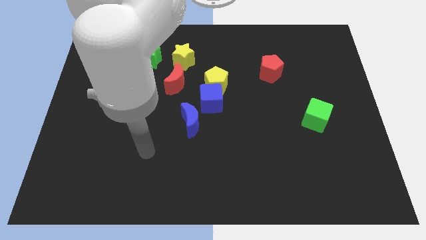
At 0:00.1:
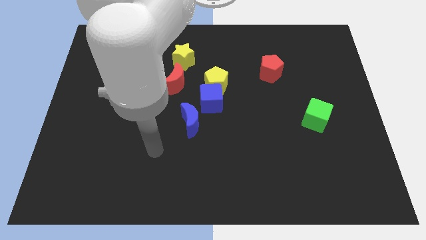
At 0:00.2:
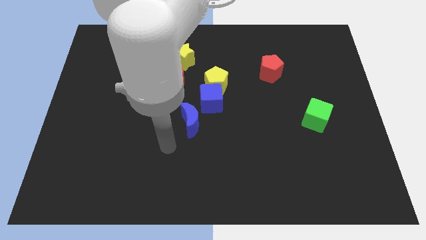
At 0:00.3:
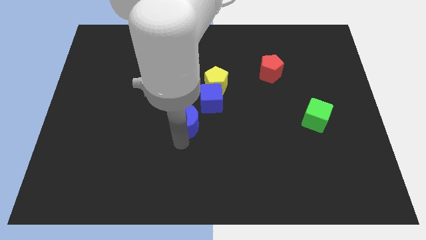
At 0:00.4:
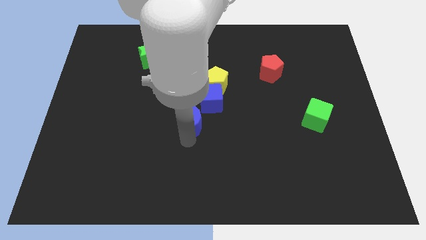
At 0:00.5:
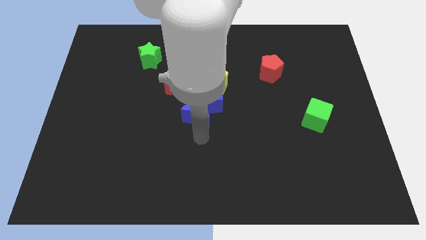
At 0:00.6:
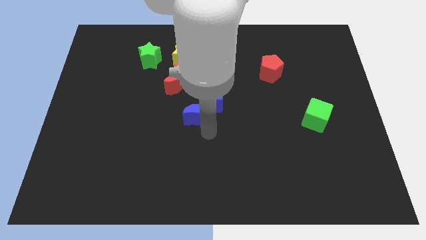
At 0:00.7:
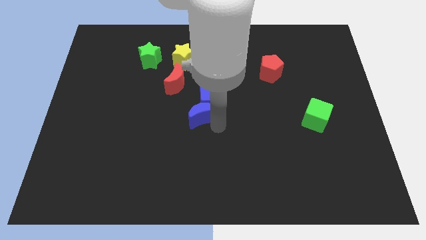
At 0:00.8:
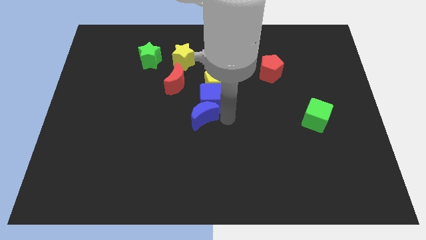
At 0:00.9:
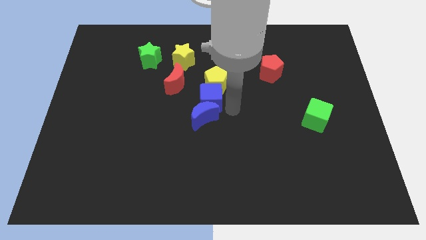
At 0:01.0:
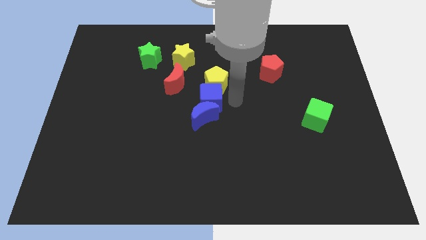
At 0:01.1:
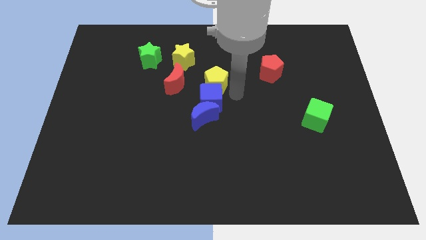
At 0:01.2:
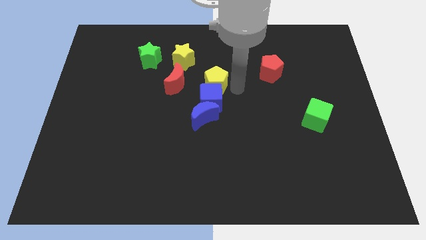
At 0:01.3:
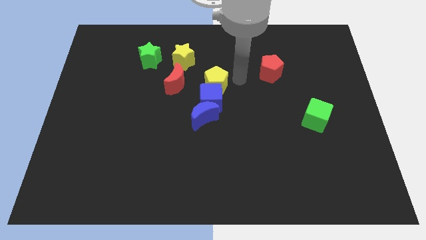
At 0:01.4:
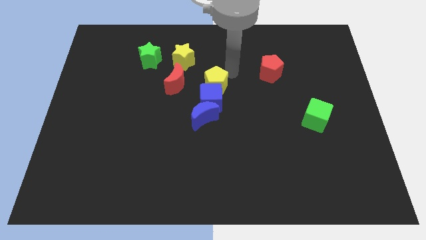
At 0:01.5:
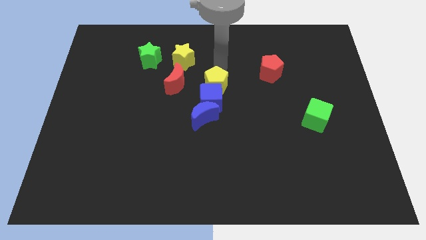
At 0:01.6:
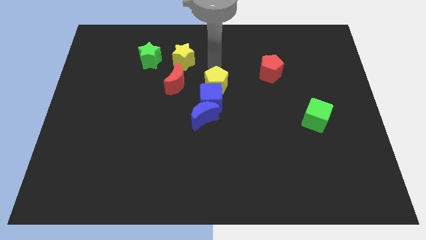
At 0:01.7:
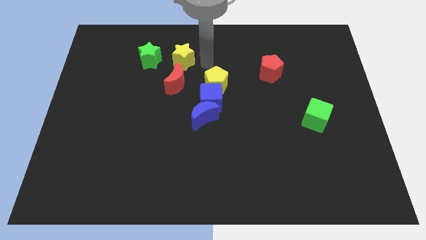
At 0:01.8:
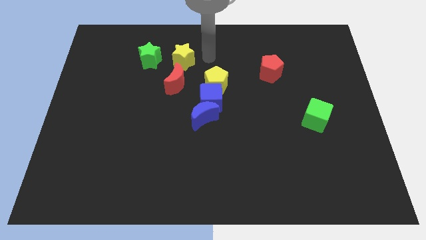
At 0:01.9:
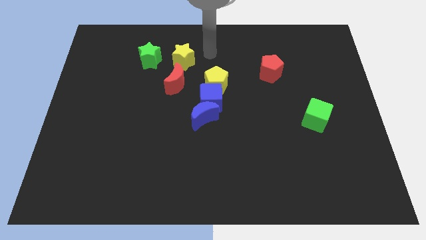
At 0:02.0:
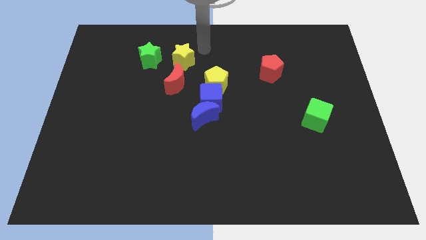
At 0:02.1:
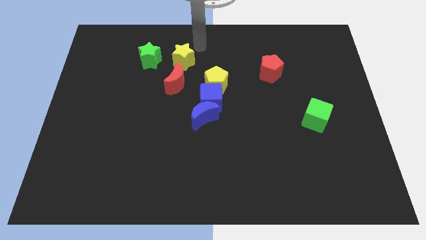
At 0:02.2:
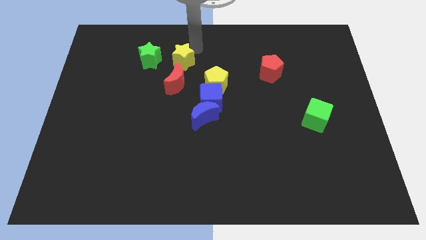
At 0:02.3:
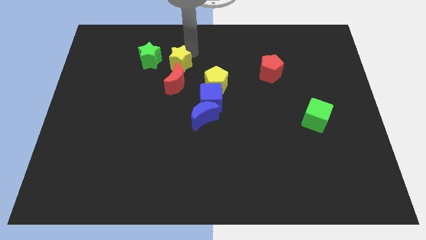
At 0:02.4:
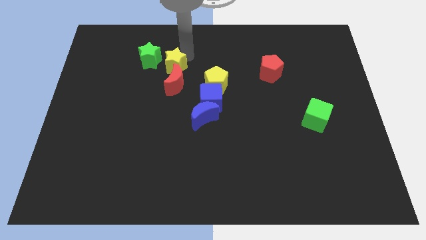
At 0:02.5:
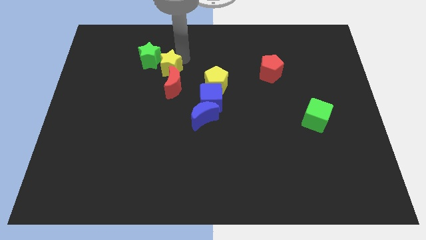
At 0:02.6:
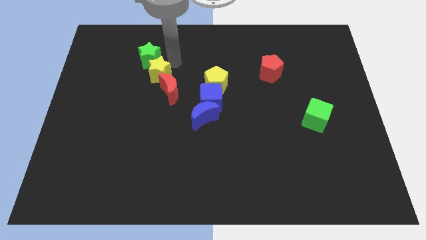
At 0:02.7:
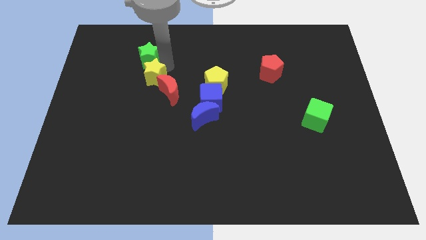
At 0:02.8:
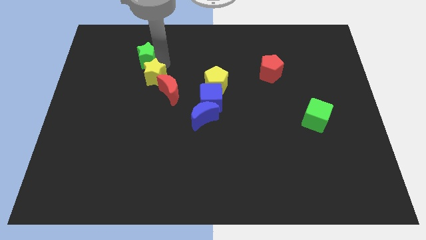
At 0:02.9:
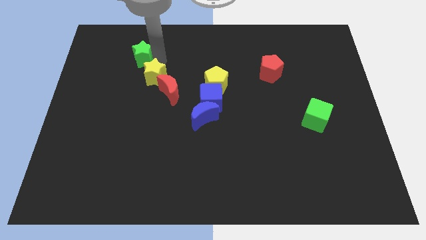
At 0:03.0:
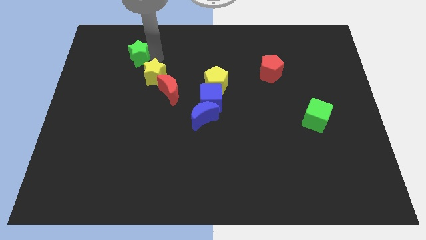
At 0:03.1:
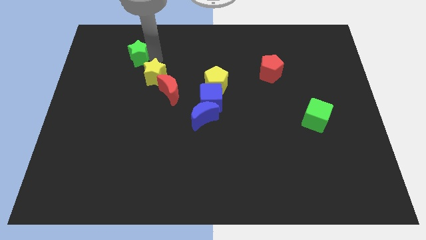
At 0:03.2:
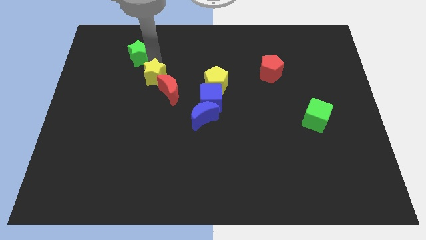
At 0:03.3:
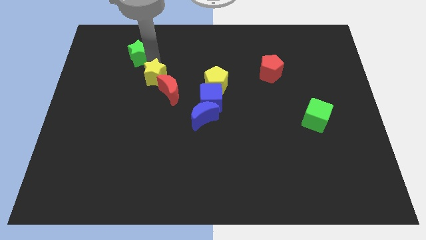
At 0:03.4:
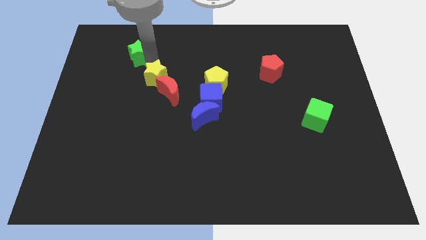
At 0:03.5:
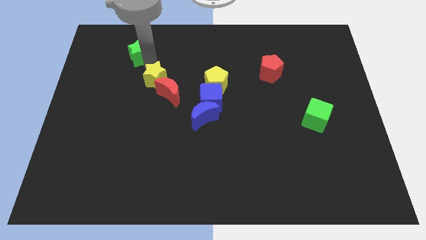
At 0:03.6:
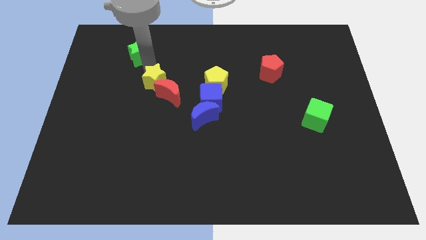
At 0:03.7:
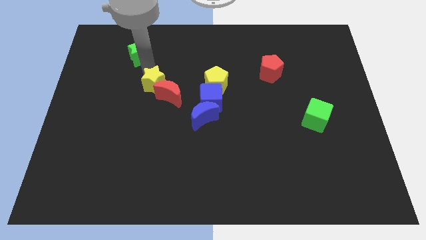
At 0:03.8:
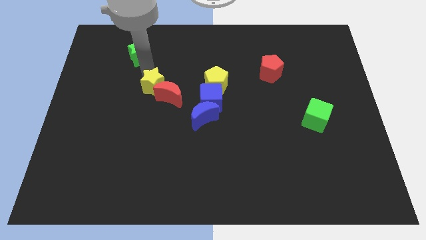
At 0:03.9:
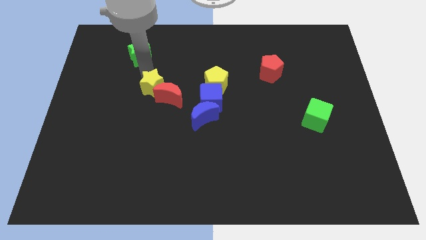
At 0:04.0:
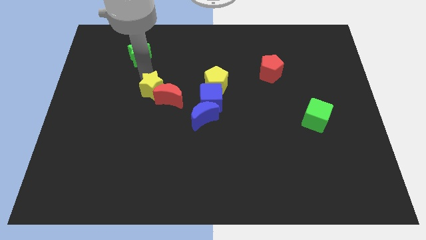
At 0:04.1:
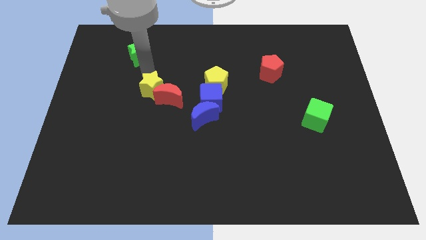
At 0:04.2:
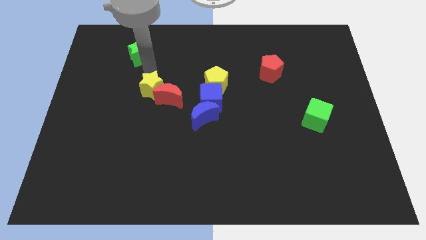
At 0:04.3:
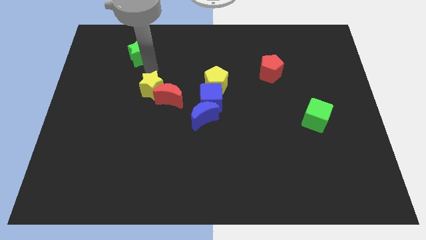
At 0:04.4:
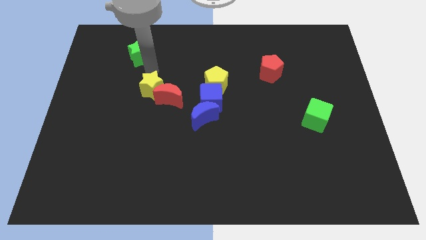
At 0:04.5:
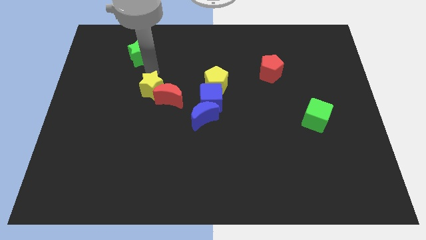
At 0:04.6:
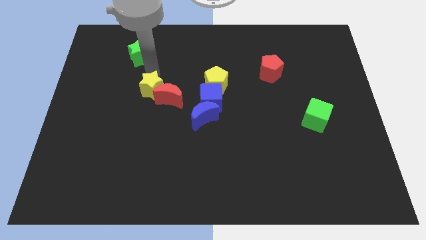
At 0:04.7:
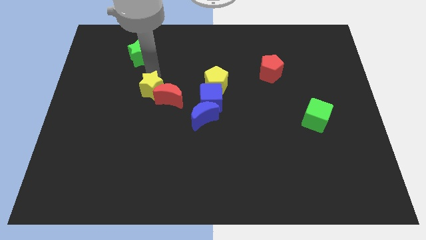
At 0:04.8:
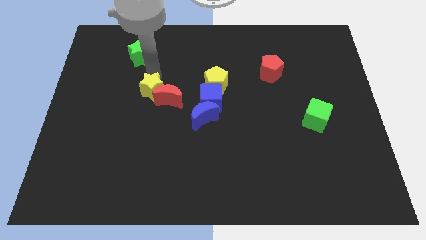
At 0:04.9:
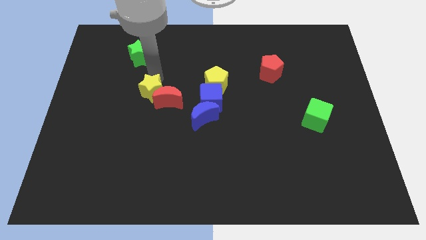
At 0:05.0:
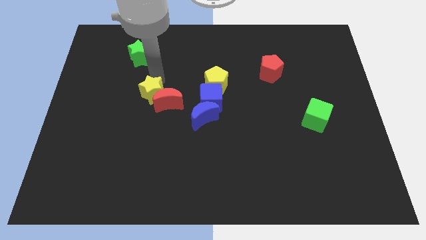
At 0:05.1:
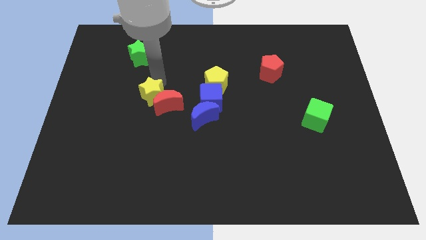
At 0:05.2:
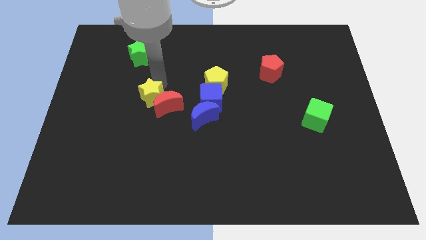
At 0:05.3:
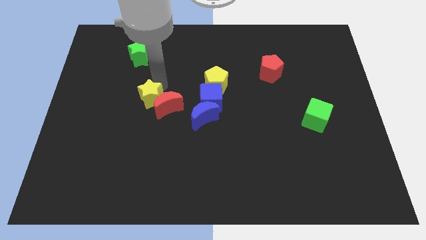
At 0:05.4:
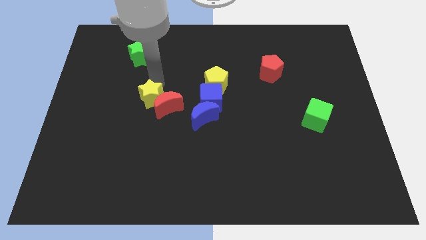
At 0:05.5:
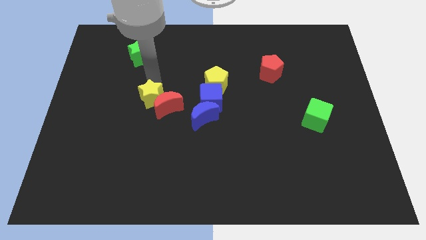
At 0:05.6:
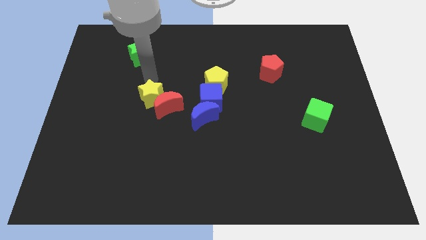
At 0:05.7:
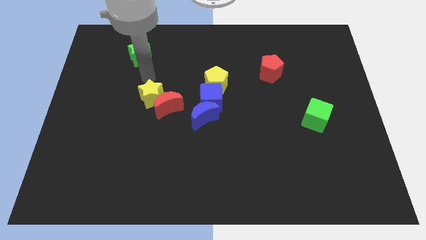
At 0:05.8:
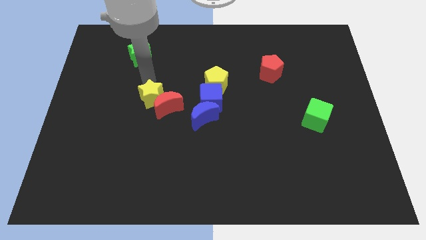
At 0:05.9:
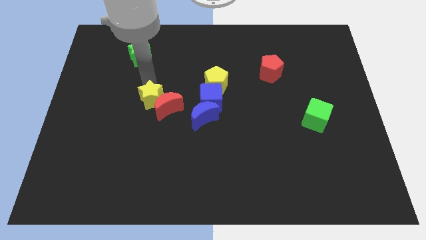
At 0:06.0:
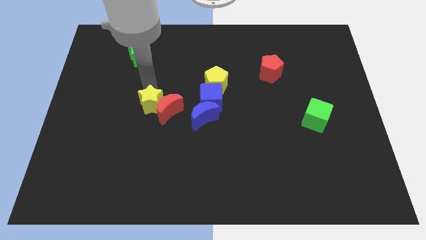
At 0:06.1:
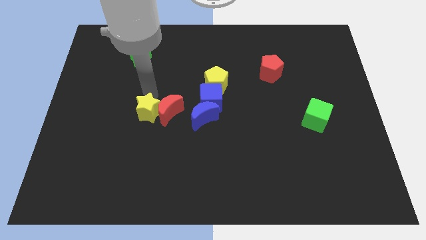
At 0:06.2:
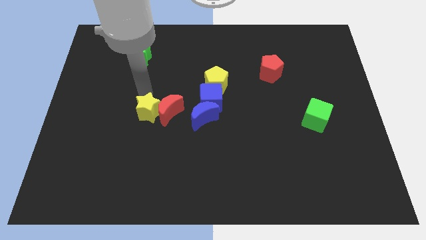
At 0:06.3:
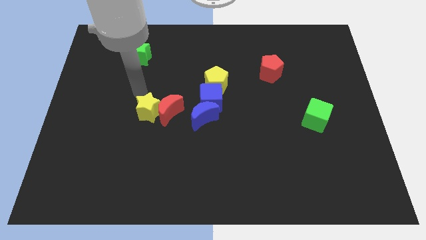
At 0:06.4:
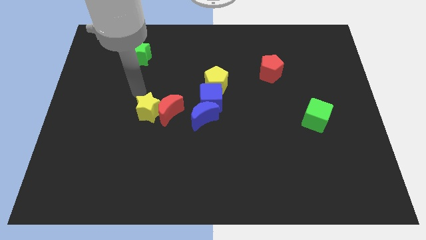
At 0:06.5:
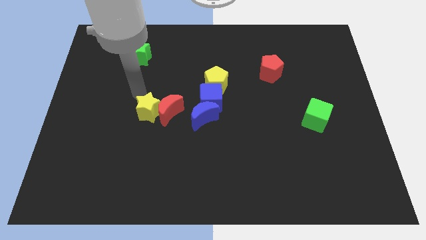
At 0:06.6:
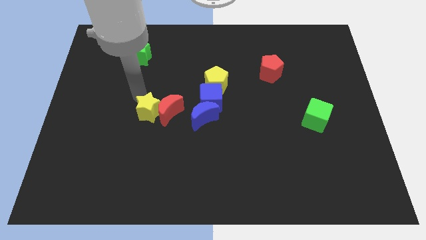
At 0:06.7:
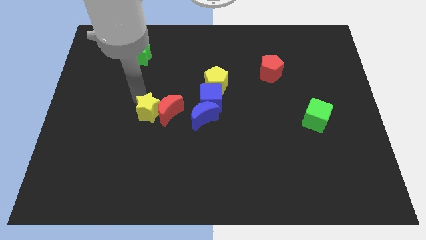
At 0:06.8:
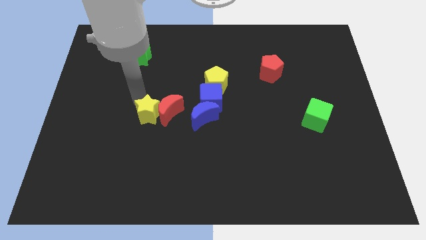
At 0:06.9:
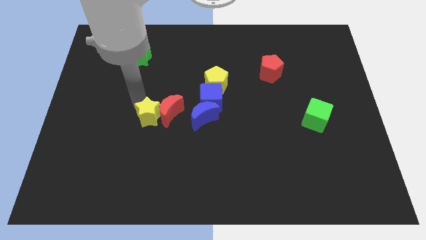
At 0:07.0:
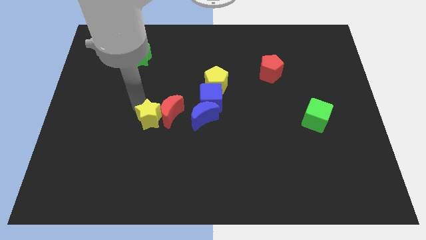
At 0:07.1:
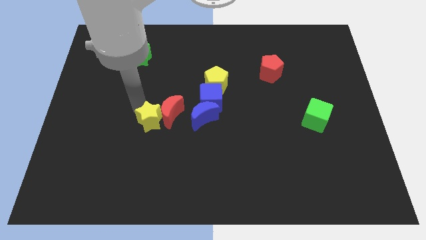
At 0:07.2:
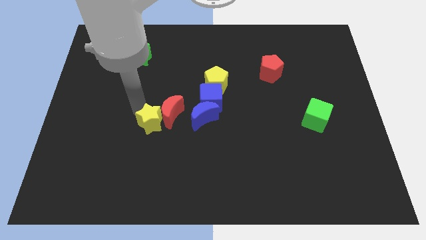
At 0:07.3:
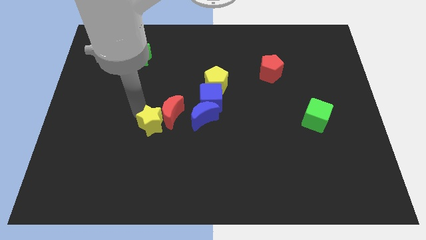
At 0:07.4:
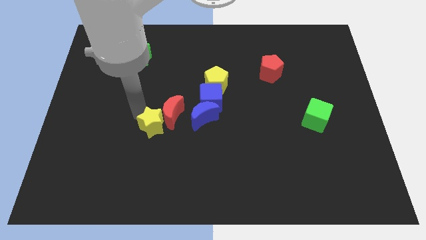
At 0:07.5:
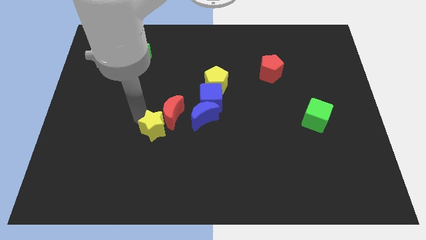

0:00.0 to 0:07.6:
slide the yellow star downwards

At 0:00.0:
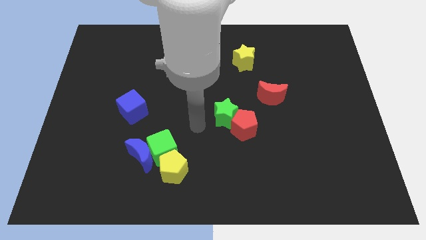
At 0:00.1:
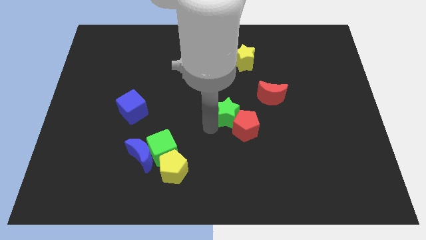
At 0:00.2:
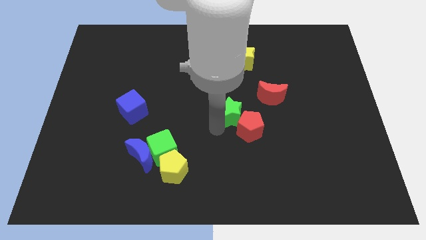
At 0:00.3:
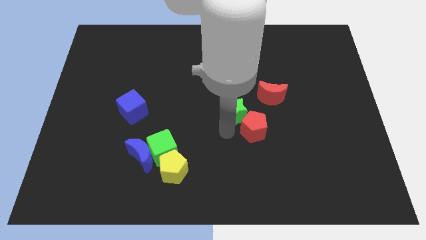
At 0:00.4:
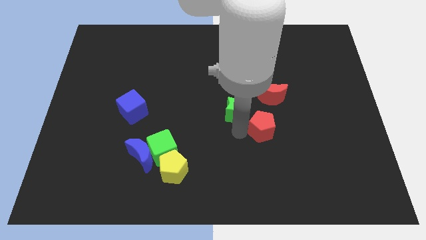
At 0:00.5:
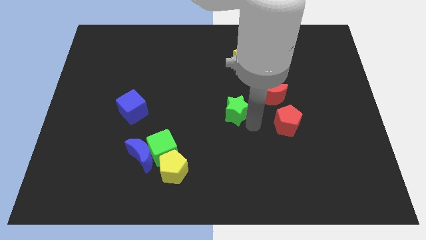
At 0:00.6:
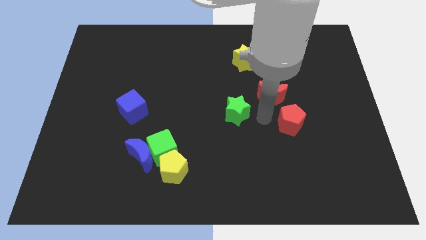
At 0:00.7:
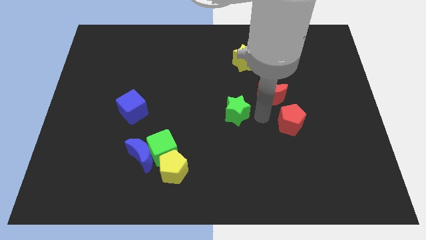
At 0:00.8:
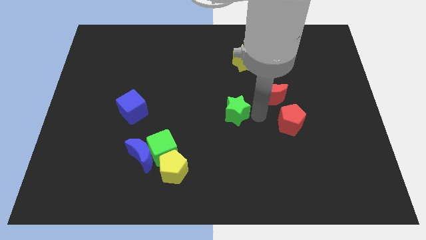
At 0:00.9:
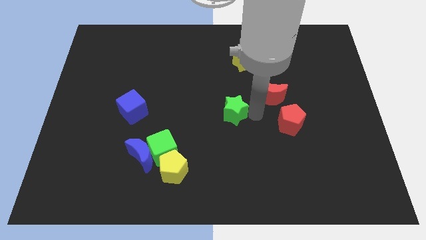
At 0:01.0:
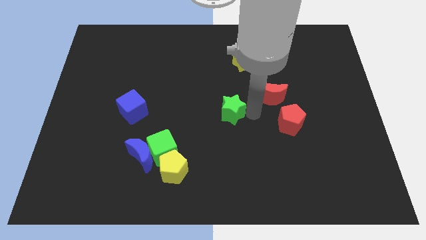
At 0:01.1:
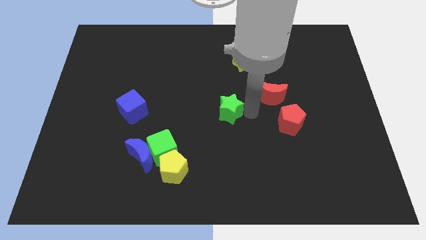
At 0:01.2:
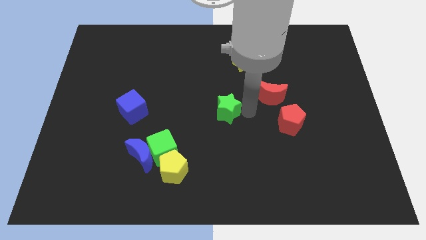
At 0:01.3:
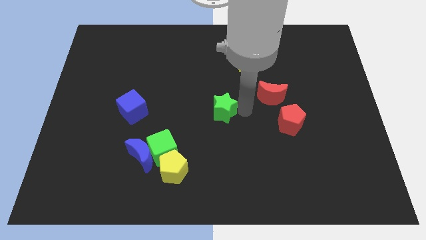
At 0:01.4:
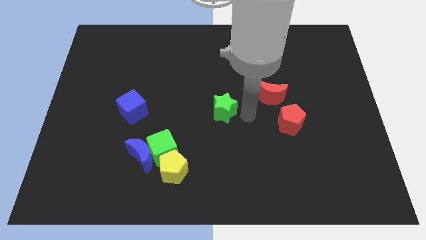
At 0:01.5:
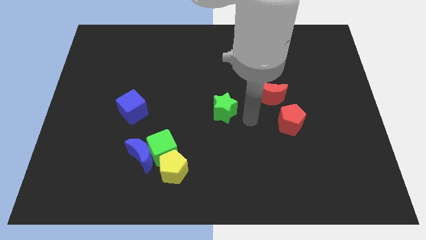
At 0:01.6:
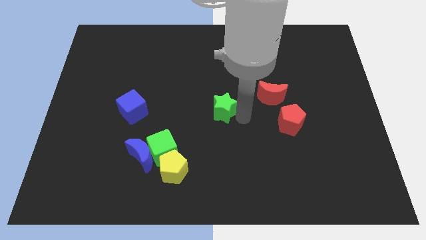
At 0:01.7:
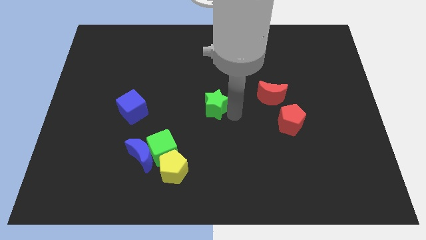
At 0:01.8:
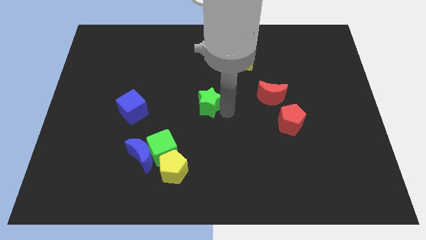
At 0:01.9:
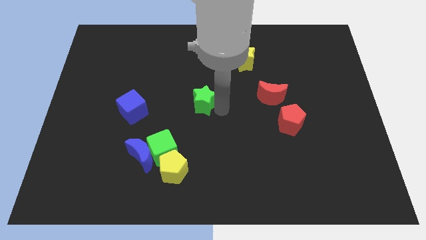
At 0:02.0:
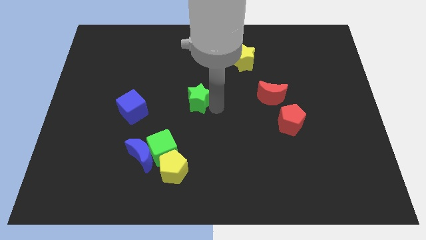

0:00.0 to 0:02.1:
slightly move the green star diagonally up and to the left
